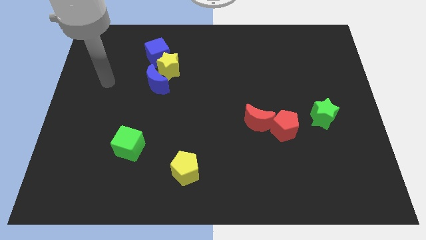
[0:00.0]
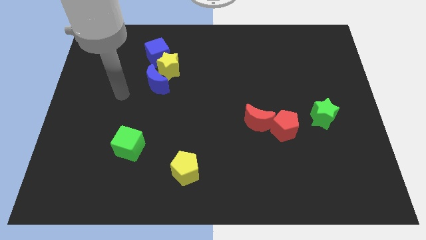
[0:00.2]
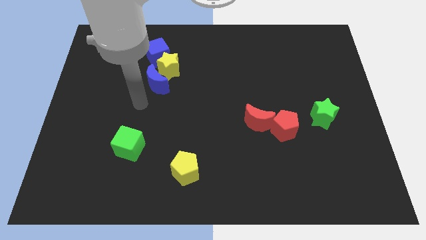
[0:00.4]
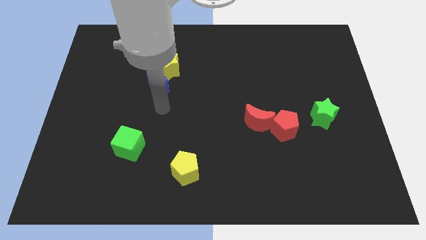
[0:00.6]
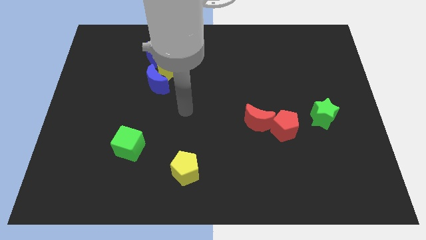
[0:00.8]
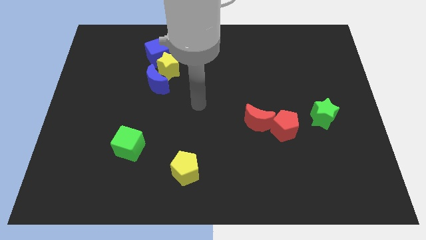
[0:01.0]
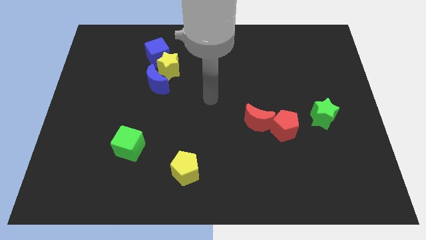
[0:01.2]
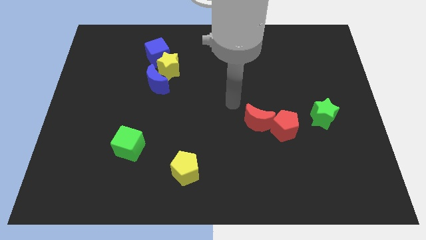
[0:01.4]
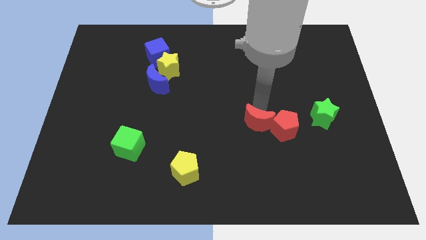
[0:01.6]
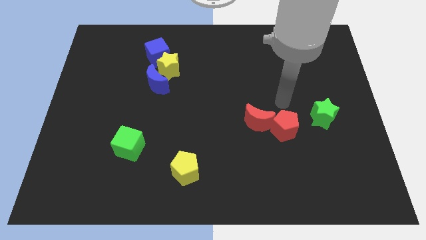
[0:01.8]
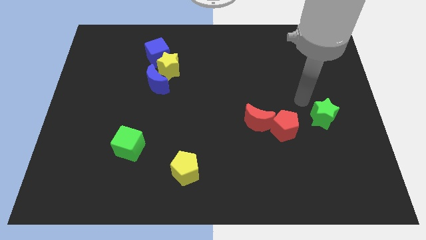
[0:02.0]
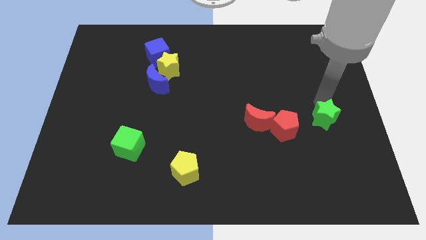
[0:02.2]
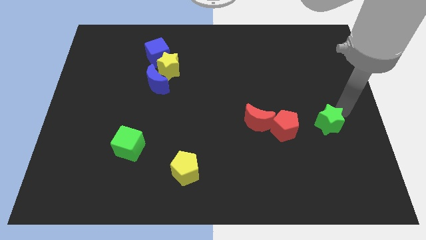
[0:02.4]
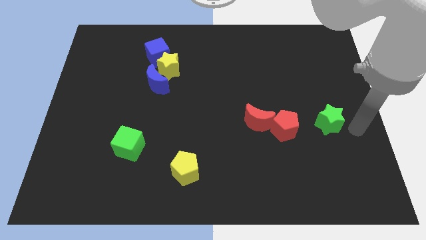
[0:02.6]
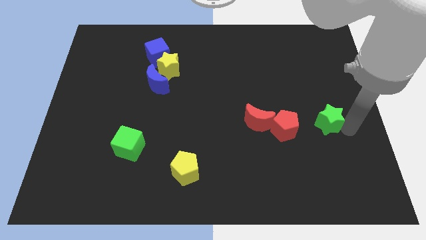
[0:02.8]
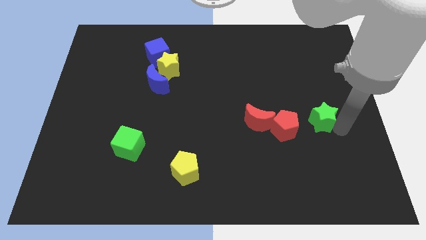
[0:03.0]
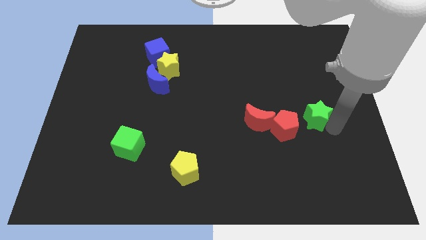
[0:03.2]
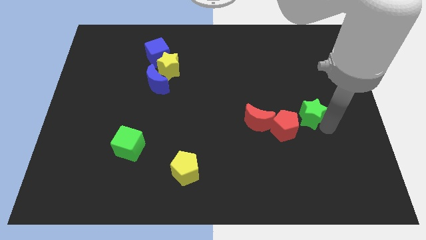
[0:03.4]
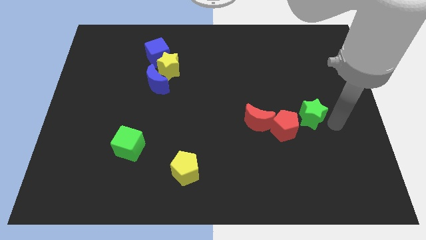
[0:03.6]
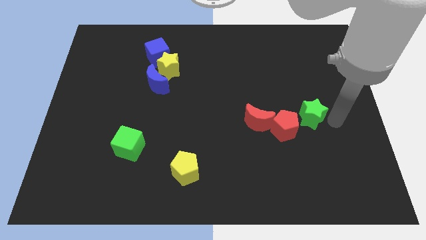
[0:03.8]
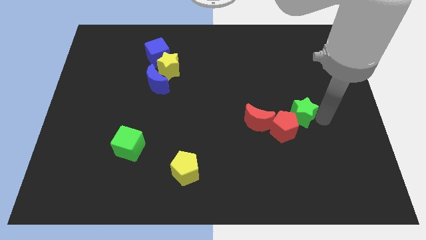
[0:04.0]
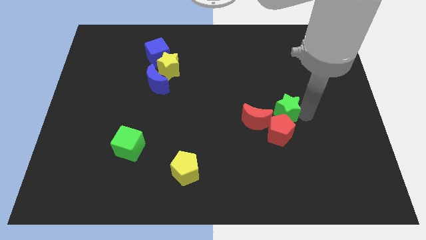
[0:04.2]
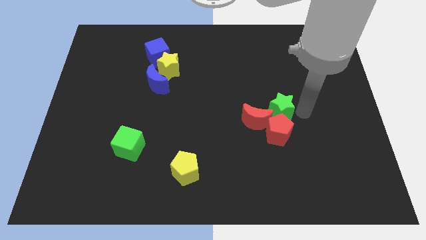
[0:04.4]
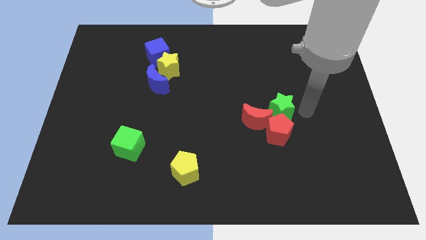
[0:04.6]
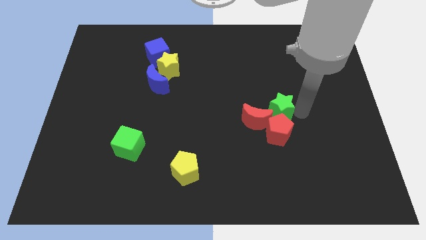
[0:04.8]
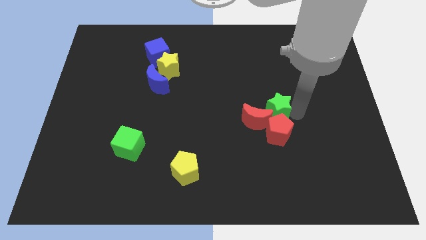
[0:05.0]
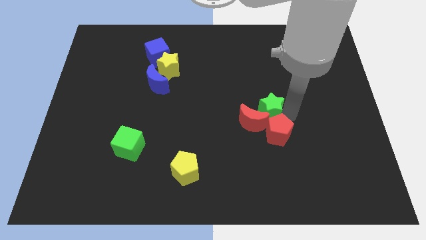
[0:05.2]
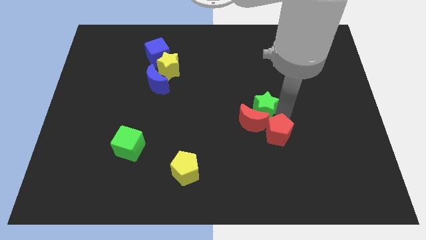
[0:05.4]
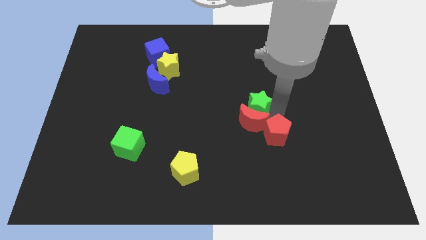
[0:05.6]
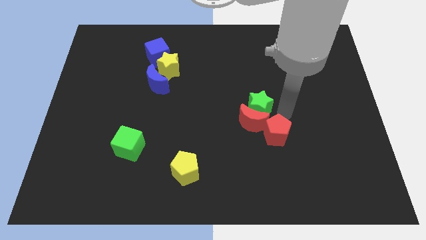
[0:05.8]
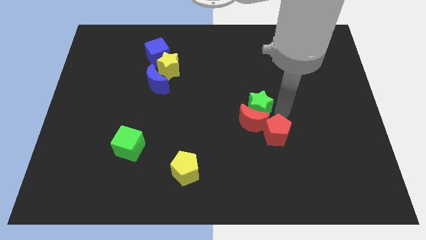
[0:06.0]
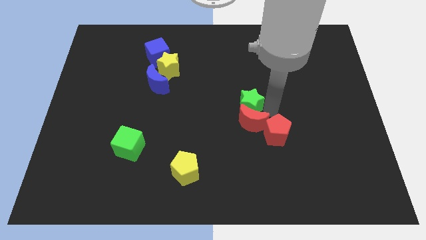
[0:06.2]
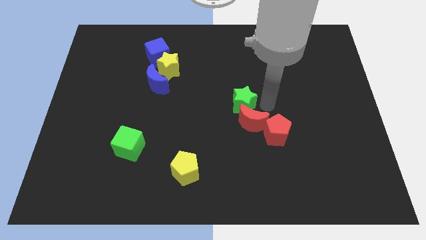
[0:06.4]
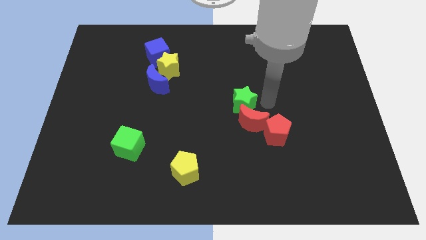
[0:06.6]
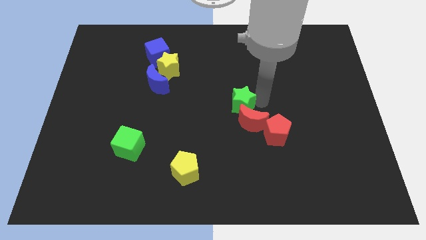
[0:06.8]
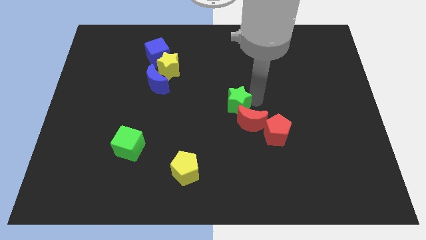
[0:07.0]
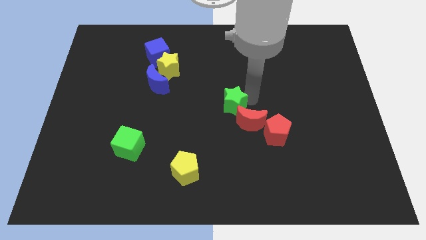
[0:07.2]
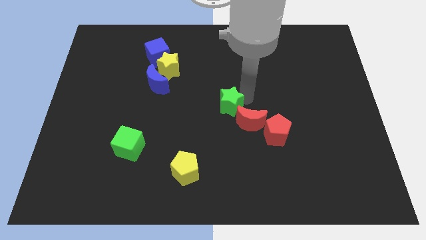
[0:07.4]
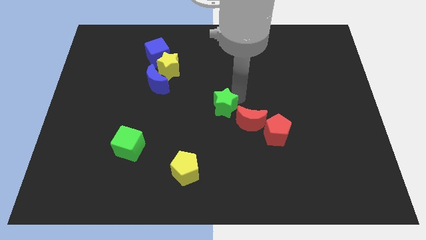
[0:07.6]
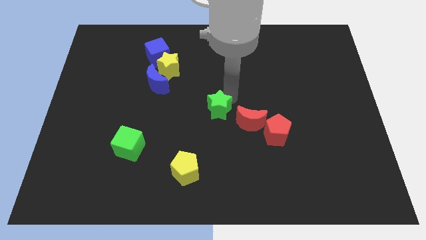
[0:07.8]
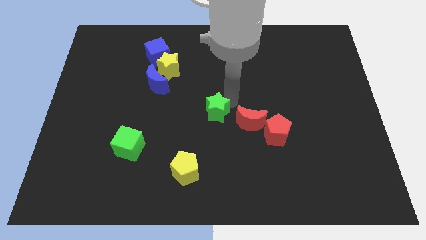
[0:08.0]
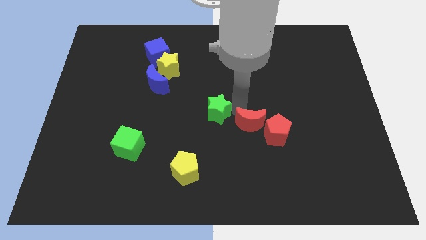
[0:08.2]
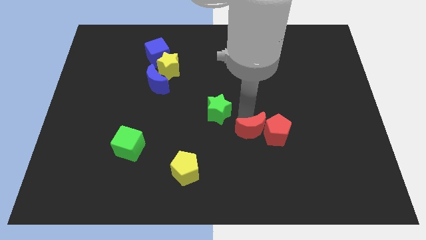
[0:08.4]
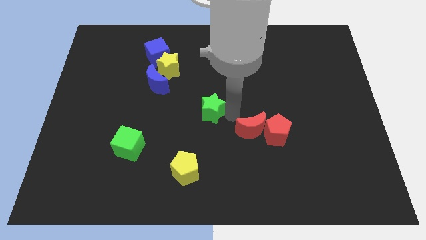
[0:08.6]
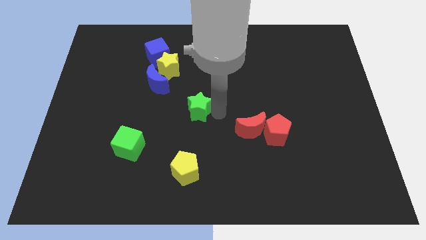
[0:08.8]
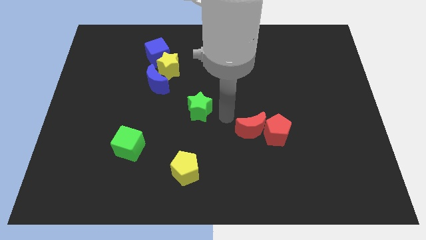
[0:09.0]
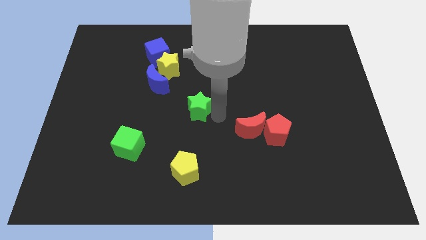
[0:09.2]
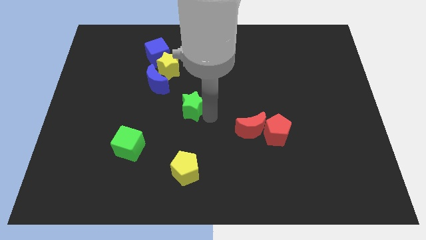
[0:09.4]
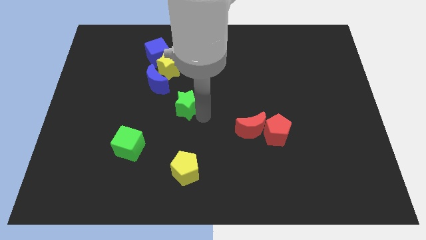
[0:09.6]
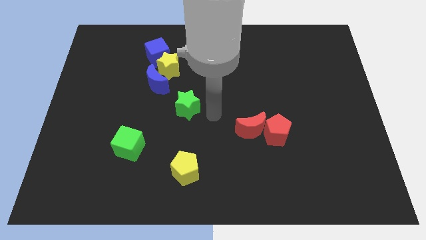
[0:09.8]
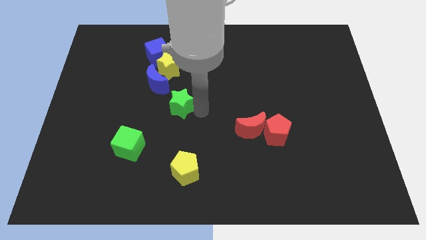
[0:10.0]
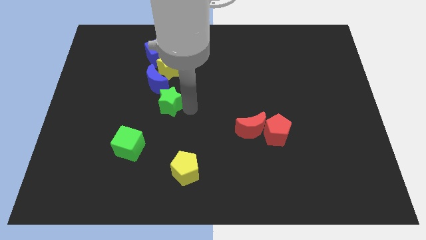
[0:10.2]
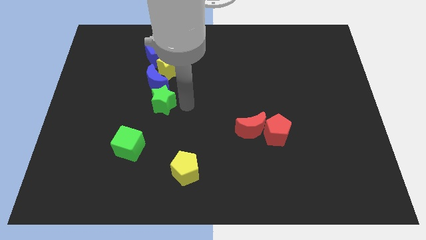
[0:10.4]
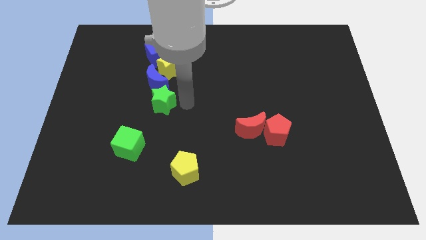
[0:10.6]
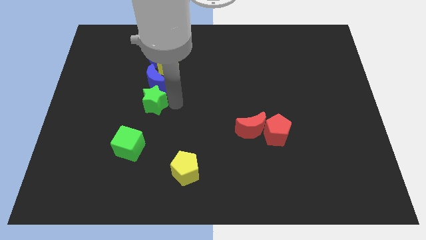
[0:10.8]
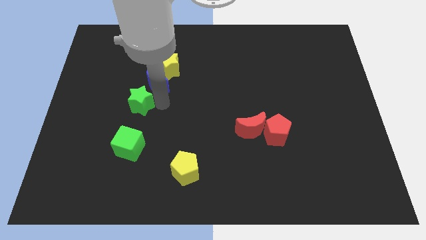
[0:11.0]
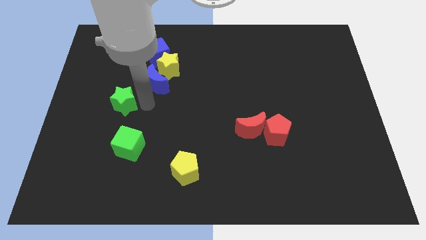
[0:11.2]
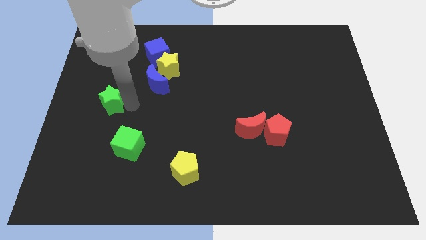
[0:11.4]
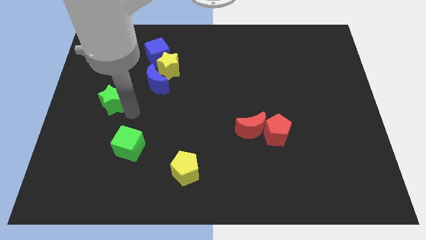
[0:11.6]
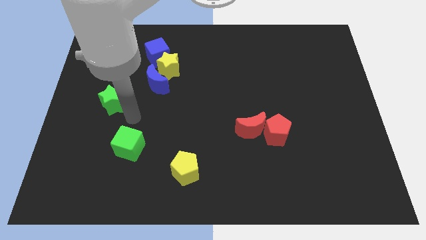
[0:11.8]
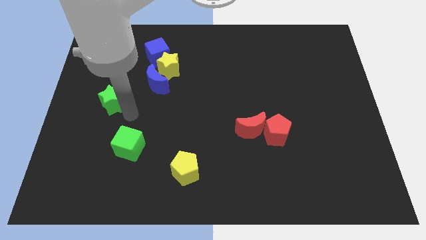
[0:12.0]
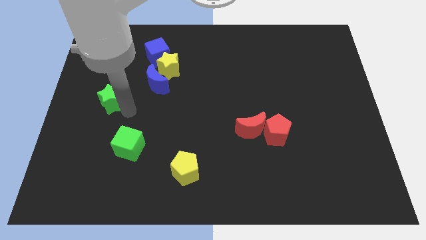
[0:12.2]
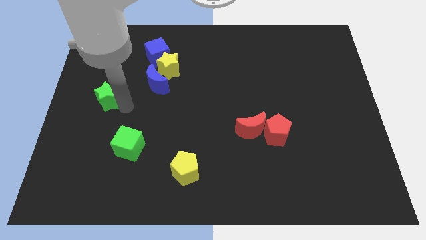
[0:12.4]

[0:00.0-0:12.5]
push the green star to the left side
